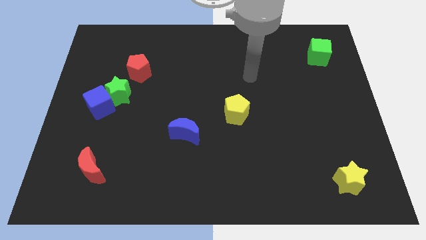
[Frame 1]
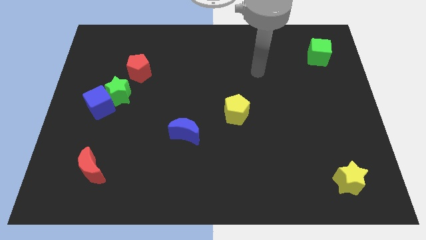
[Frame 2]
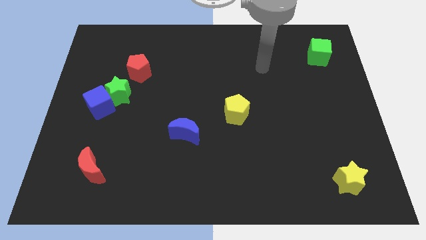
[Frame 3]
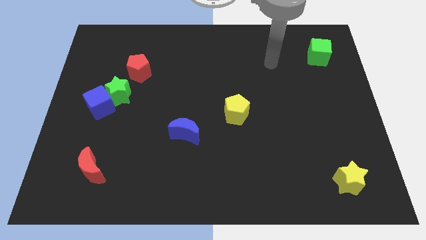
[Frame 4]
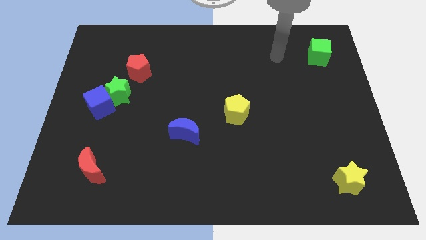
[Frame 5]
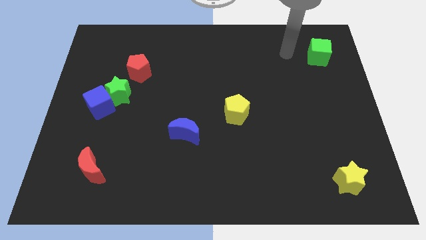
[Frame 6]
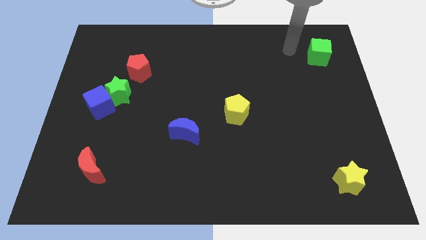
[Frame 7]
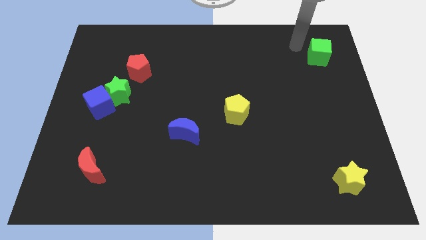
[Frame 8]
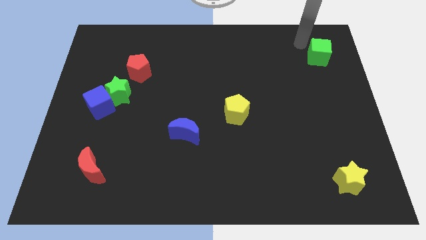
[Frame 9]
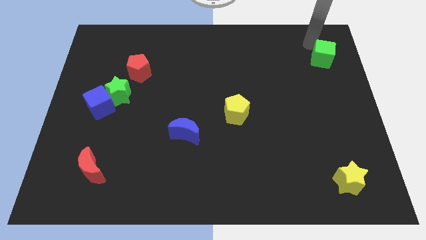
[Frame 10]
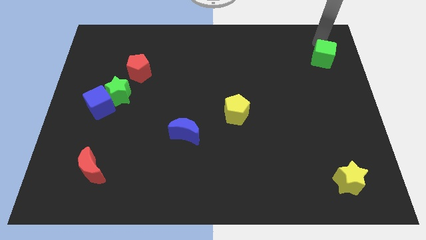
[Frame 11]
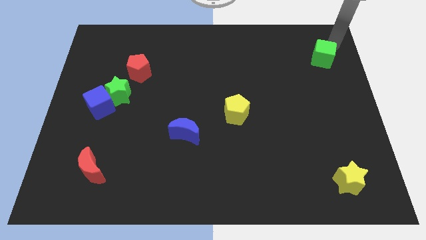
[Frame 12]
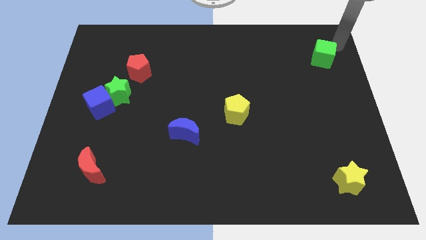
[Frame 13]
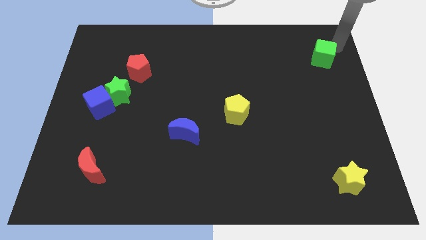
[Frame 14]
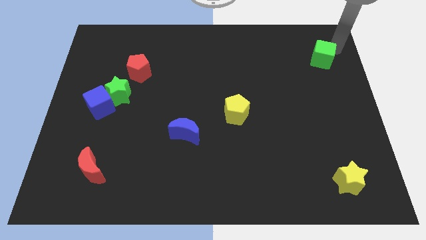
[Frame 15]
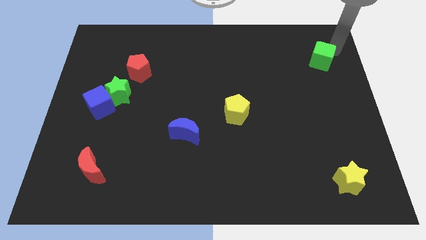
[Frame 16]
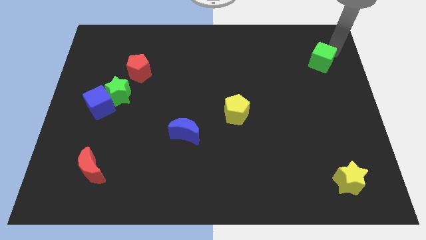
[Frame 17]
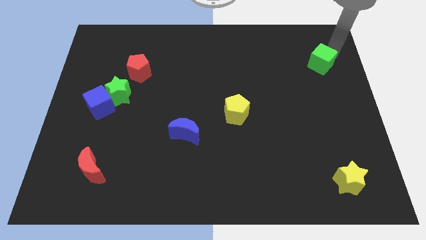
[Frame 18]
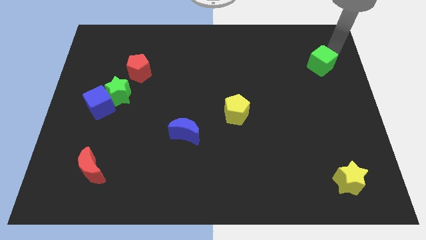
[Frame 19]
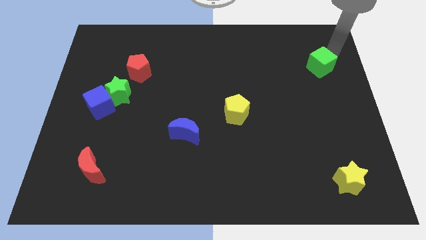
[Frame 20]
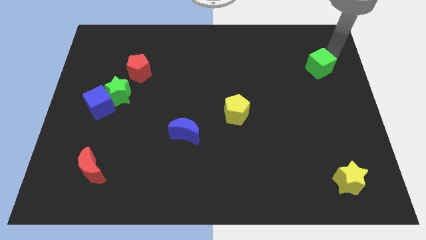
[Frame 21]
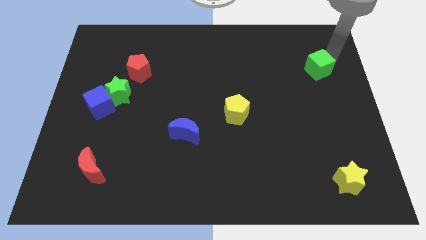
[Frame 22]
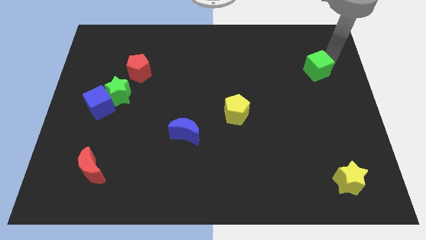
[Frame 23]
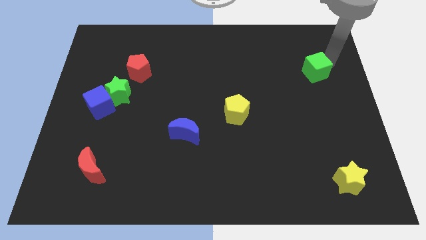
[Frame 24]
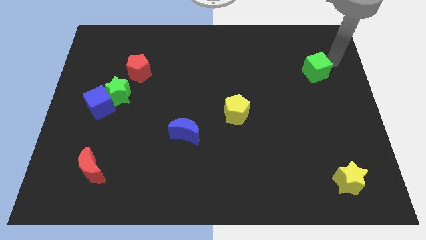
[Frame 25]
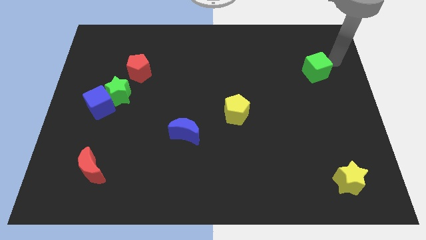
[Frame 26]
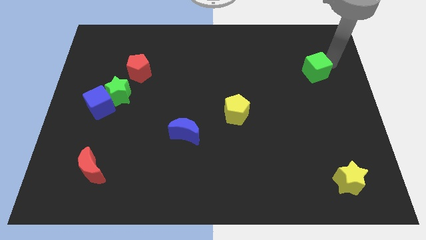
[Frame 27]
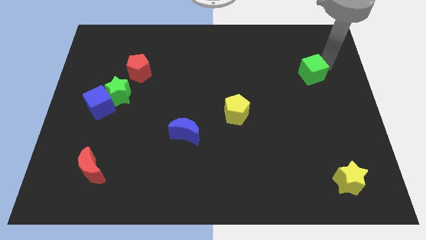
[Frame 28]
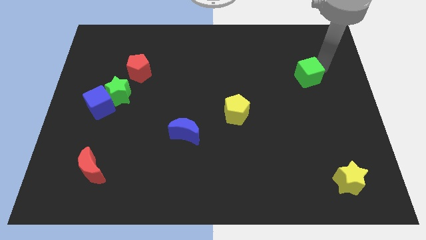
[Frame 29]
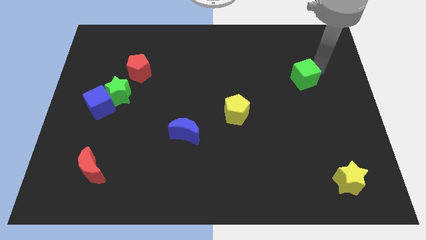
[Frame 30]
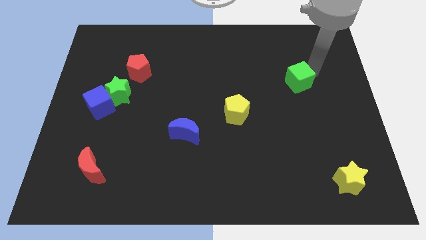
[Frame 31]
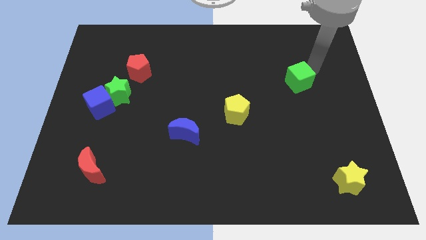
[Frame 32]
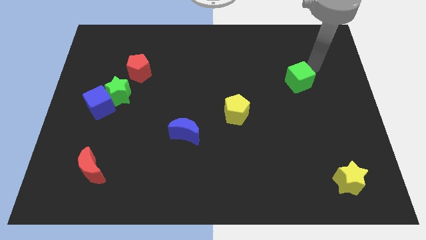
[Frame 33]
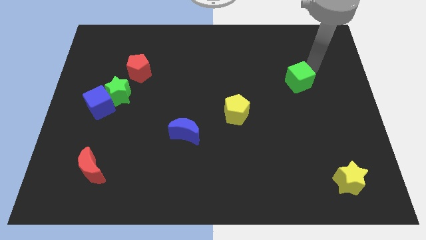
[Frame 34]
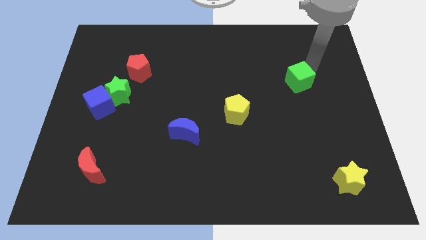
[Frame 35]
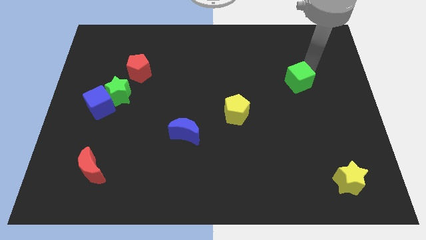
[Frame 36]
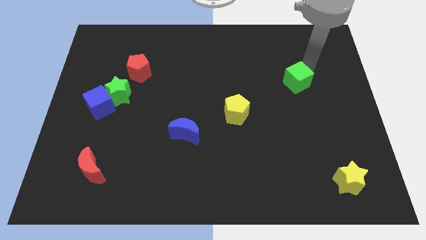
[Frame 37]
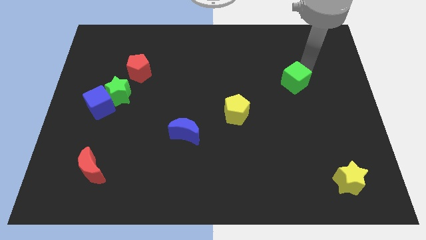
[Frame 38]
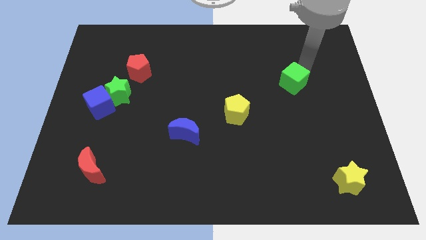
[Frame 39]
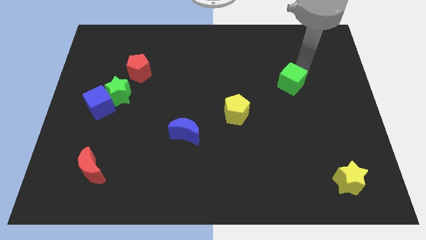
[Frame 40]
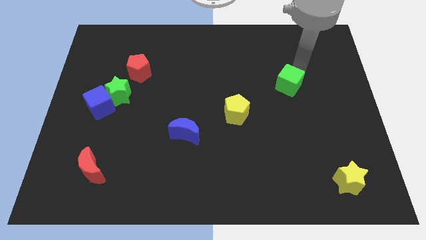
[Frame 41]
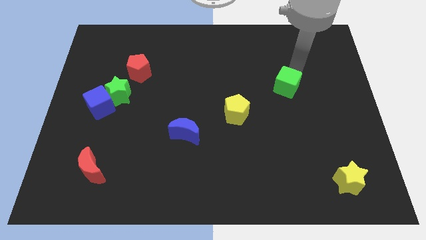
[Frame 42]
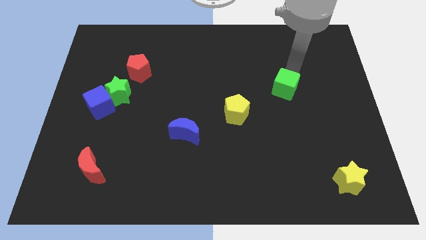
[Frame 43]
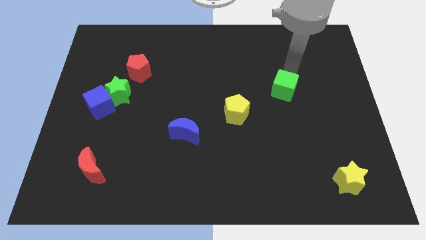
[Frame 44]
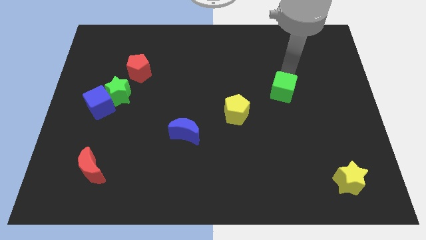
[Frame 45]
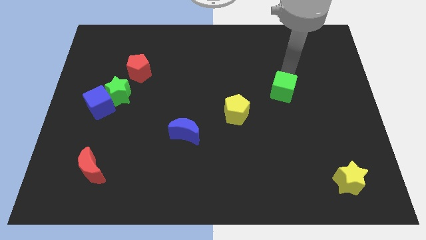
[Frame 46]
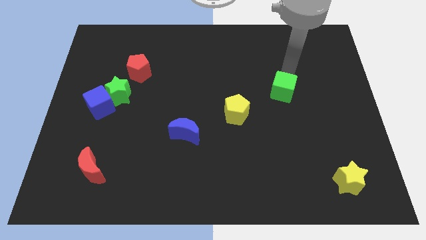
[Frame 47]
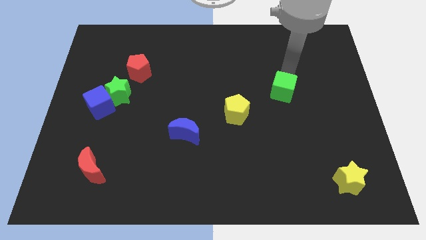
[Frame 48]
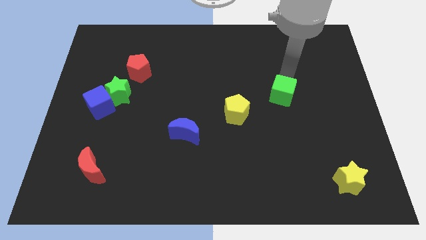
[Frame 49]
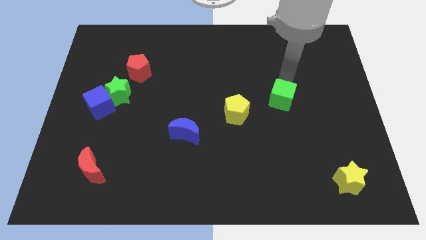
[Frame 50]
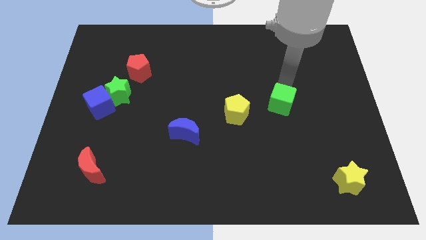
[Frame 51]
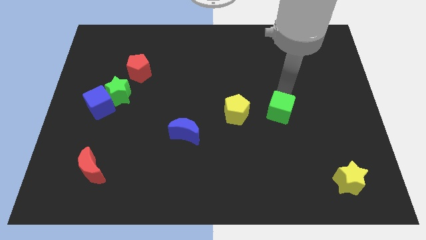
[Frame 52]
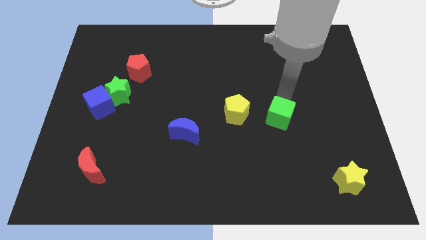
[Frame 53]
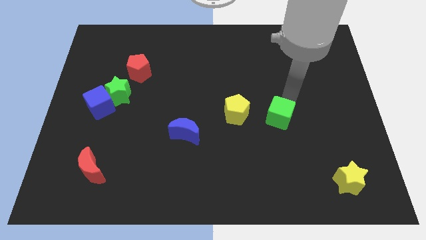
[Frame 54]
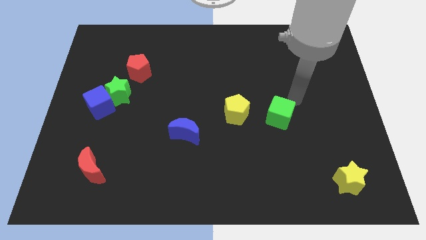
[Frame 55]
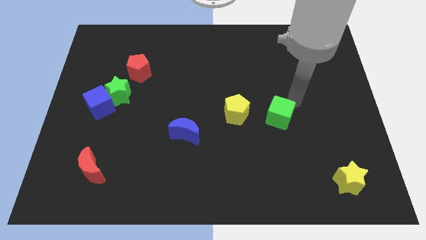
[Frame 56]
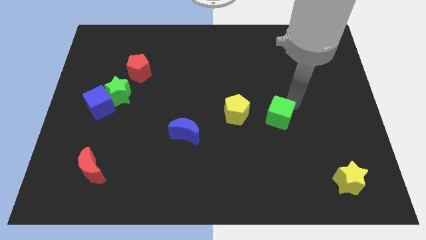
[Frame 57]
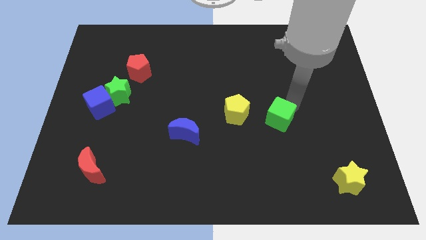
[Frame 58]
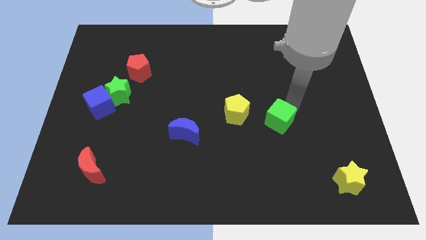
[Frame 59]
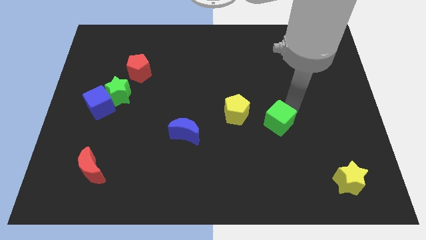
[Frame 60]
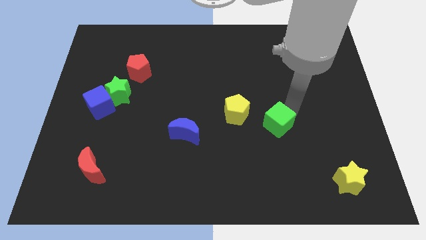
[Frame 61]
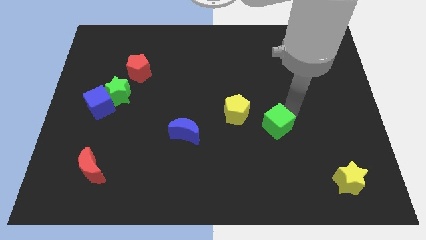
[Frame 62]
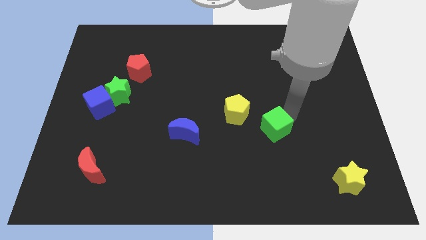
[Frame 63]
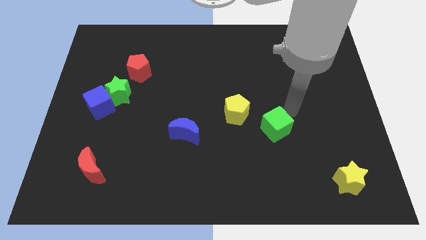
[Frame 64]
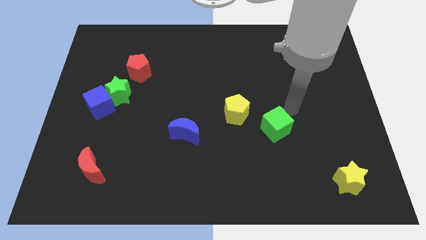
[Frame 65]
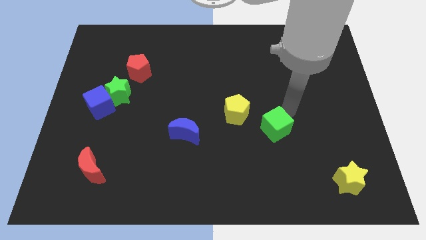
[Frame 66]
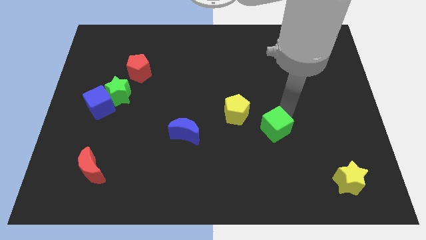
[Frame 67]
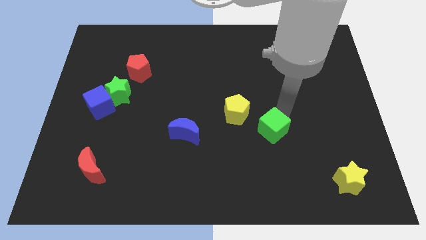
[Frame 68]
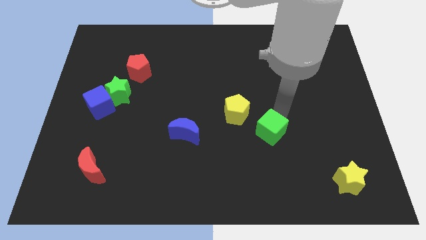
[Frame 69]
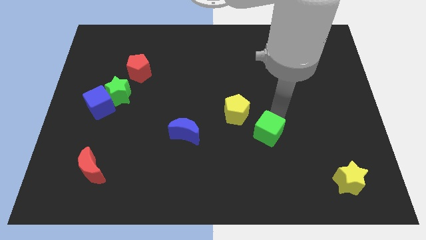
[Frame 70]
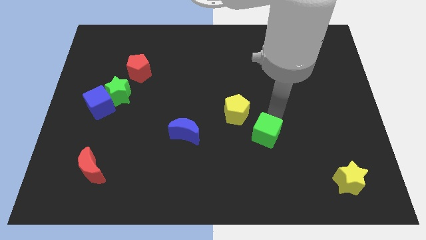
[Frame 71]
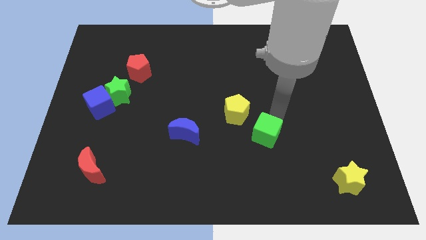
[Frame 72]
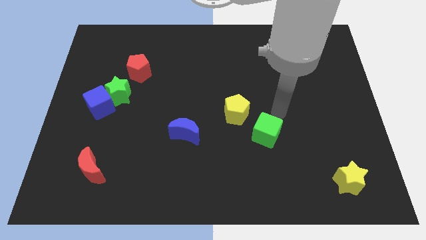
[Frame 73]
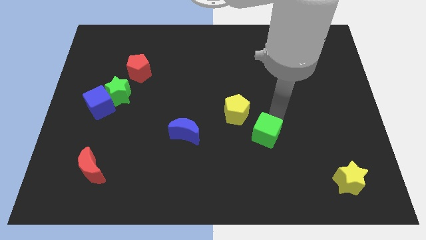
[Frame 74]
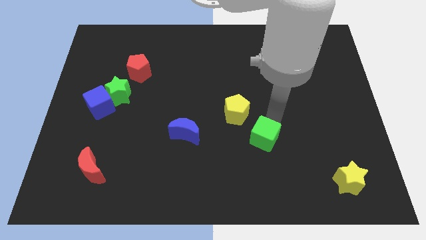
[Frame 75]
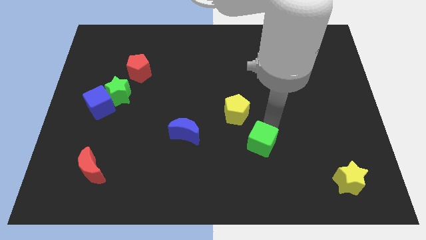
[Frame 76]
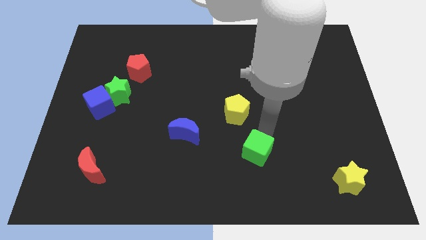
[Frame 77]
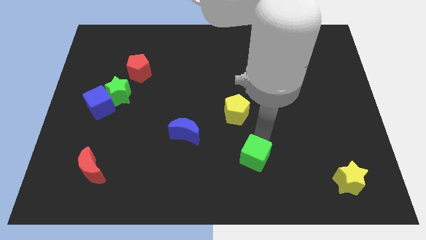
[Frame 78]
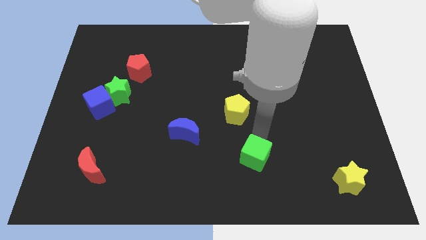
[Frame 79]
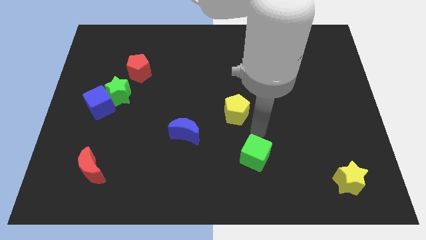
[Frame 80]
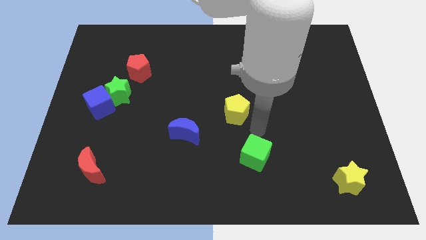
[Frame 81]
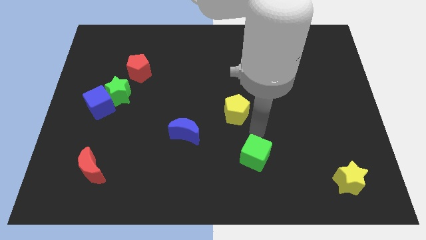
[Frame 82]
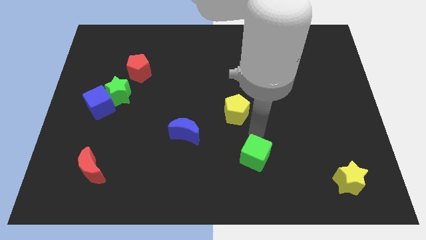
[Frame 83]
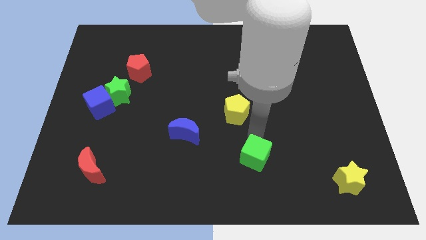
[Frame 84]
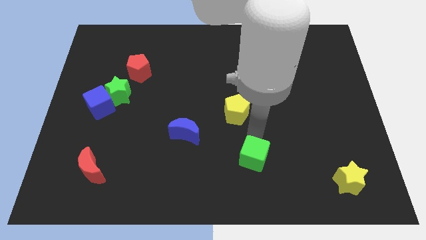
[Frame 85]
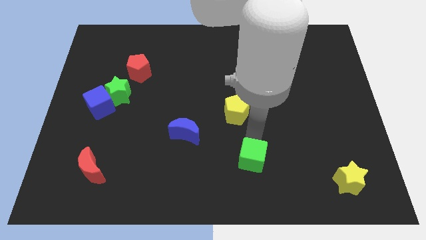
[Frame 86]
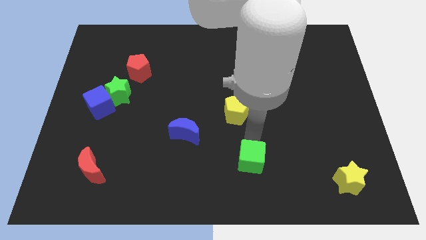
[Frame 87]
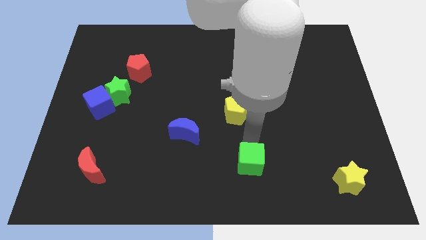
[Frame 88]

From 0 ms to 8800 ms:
move the green cube to the bottom
